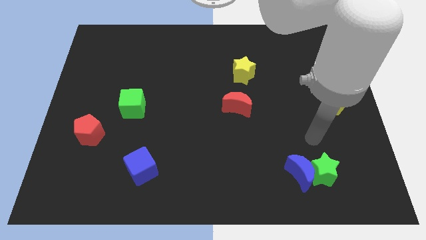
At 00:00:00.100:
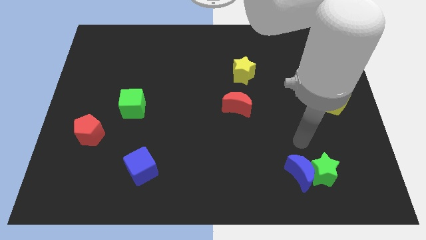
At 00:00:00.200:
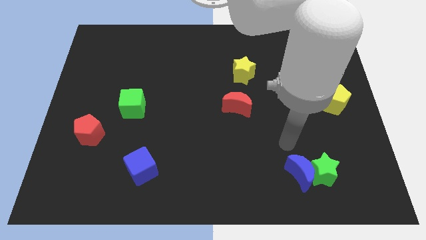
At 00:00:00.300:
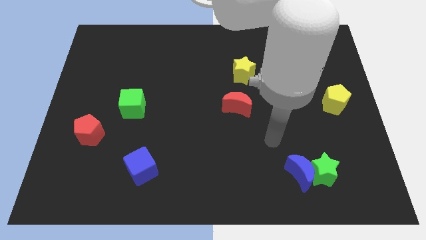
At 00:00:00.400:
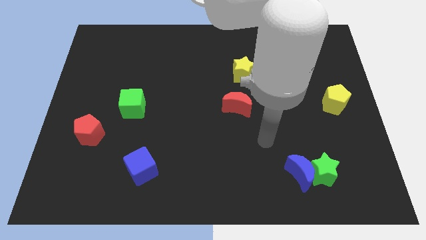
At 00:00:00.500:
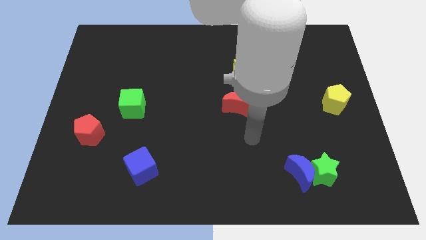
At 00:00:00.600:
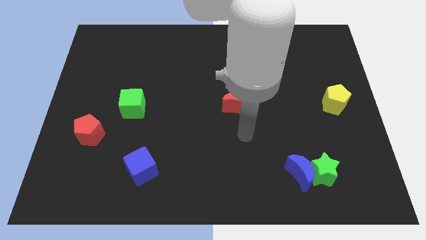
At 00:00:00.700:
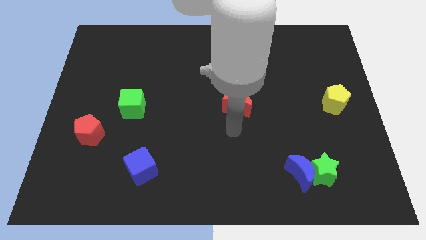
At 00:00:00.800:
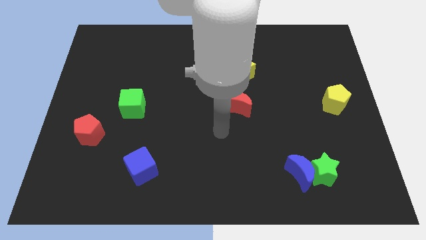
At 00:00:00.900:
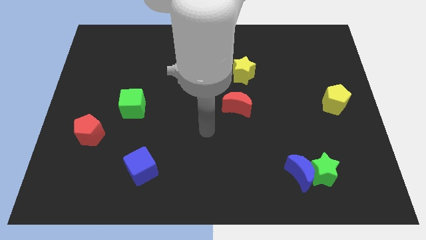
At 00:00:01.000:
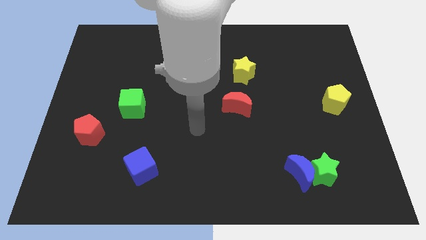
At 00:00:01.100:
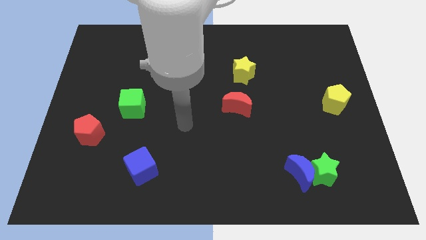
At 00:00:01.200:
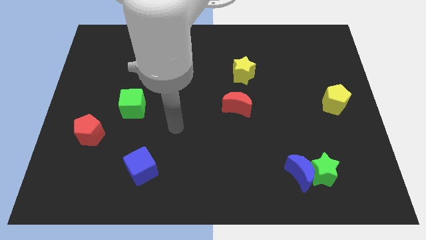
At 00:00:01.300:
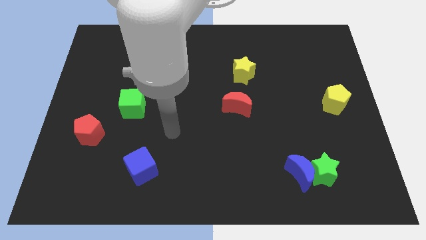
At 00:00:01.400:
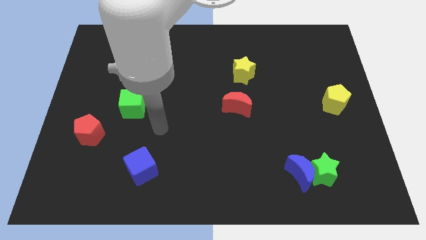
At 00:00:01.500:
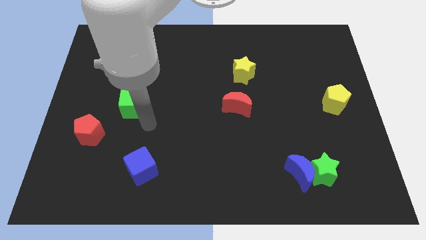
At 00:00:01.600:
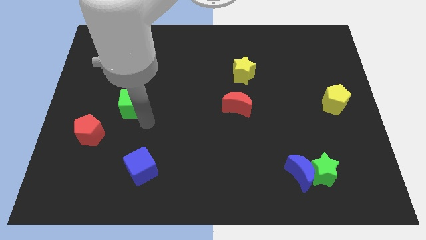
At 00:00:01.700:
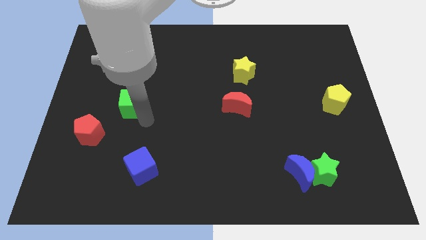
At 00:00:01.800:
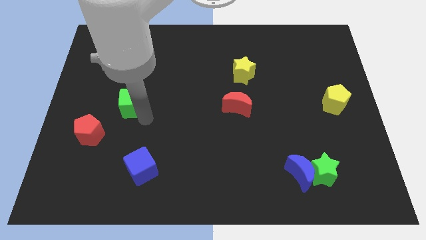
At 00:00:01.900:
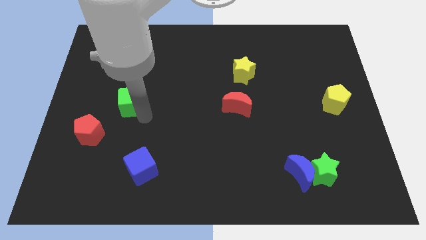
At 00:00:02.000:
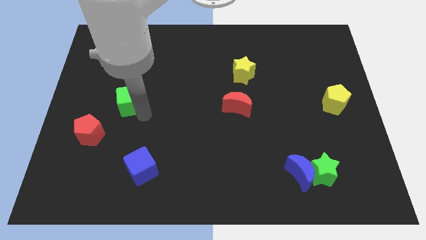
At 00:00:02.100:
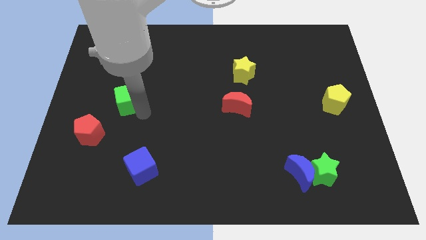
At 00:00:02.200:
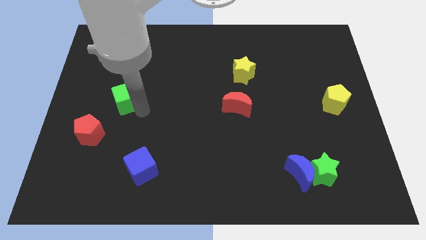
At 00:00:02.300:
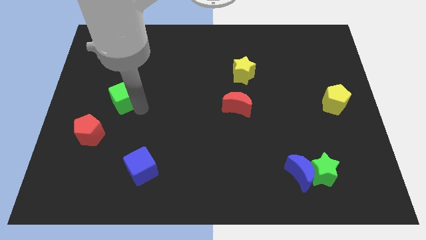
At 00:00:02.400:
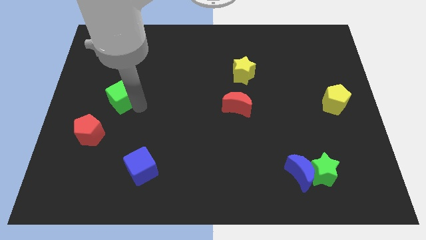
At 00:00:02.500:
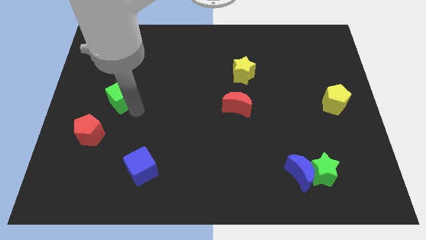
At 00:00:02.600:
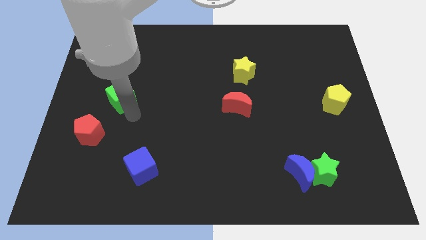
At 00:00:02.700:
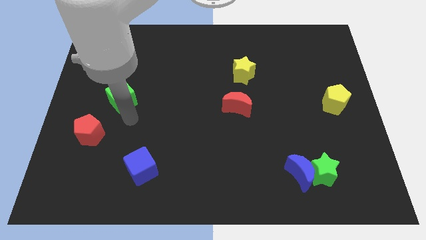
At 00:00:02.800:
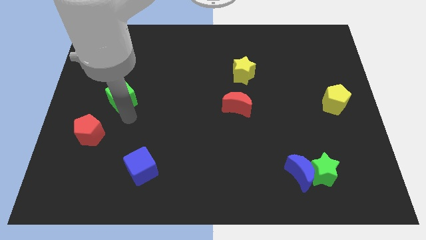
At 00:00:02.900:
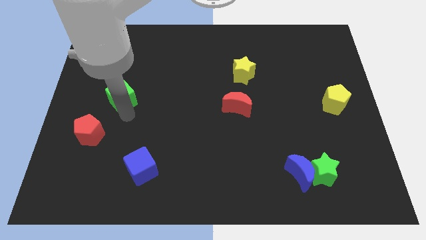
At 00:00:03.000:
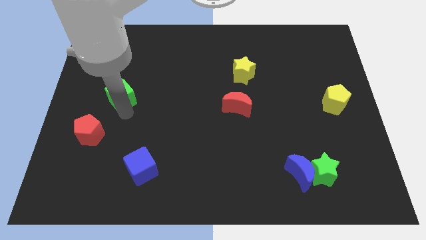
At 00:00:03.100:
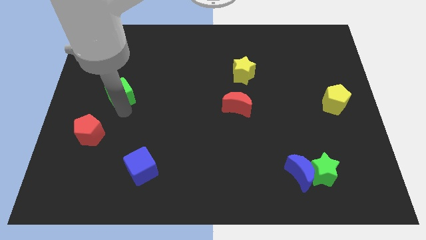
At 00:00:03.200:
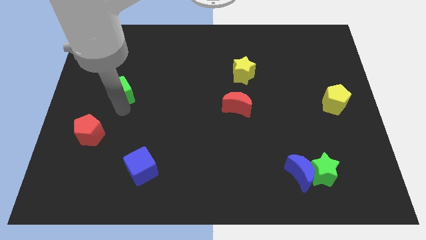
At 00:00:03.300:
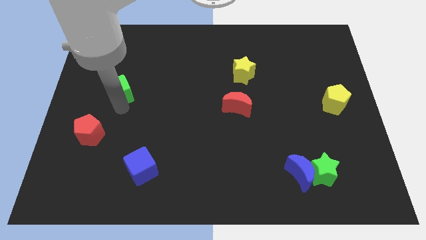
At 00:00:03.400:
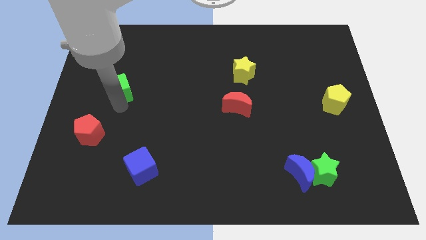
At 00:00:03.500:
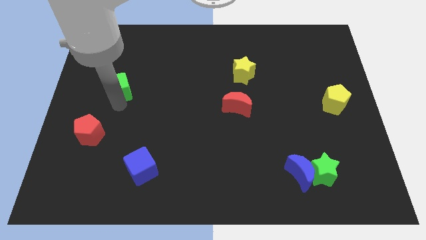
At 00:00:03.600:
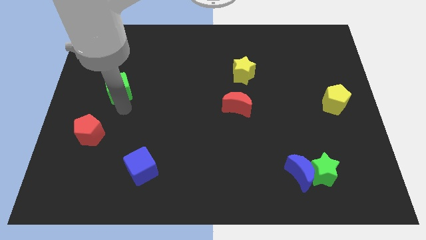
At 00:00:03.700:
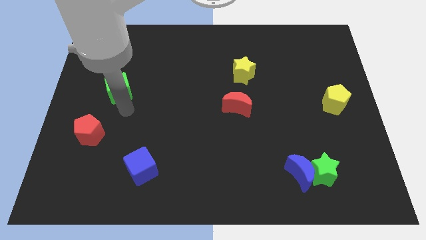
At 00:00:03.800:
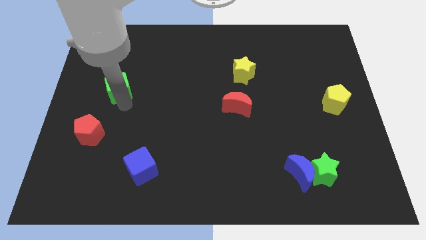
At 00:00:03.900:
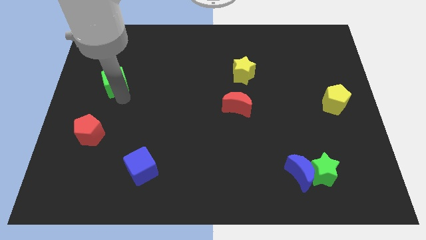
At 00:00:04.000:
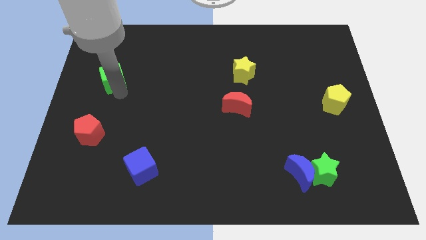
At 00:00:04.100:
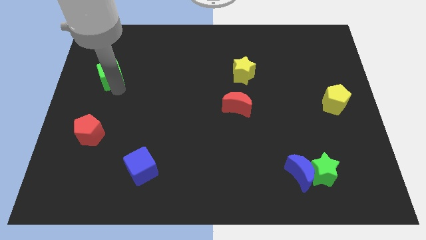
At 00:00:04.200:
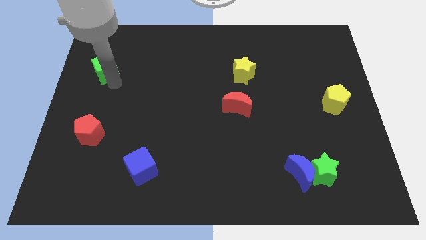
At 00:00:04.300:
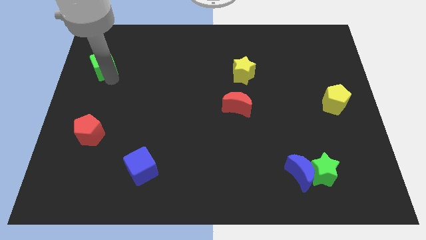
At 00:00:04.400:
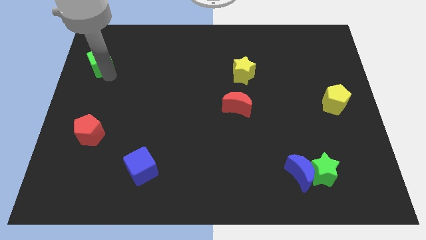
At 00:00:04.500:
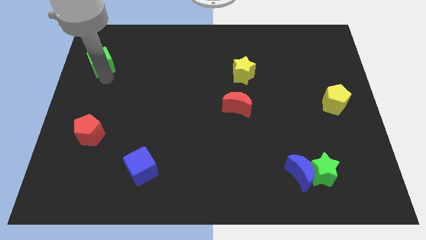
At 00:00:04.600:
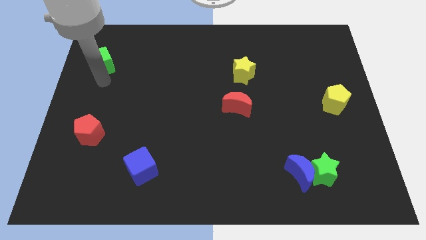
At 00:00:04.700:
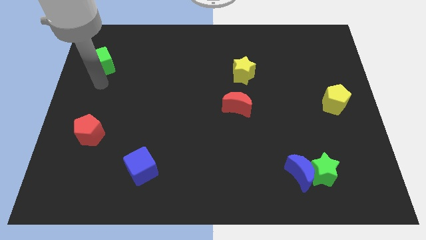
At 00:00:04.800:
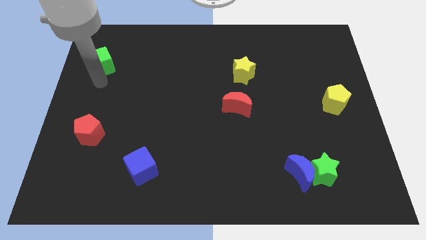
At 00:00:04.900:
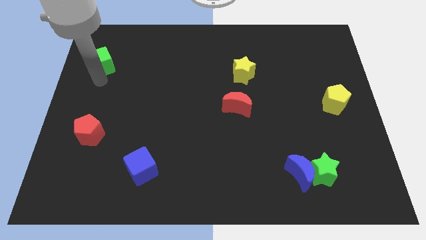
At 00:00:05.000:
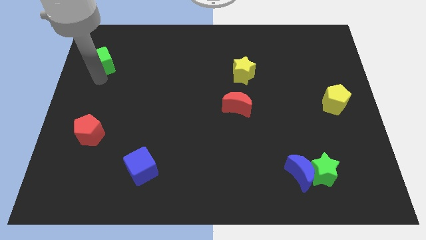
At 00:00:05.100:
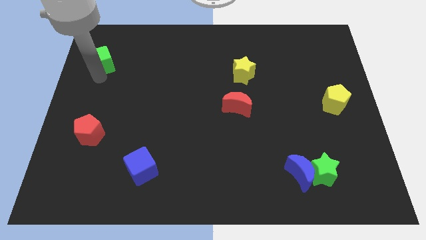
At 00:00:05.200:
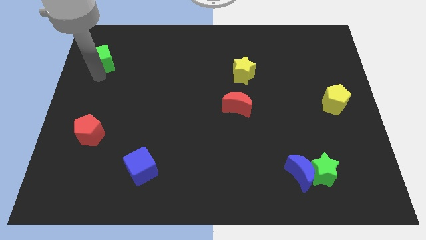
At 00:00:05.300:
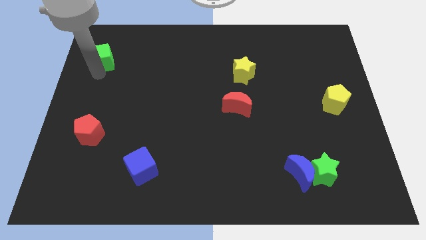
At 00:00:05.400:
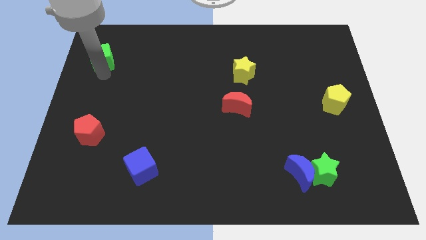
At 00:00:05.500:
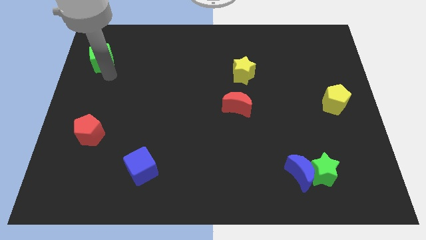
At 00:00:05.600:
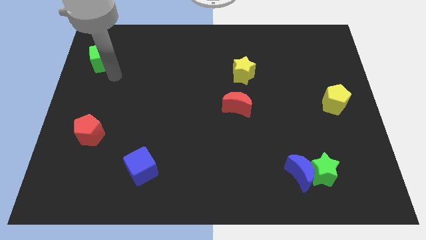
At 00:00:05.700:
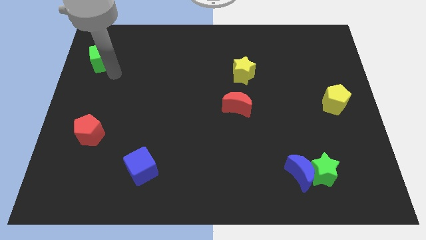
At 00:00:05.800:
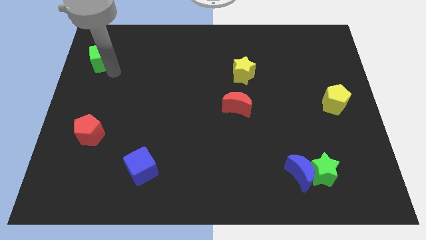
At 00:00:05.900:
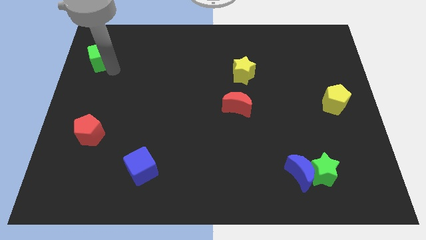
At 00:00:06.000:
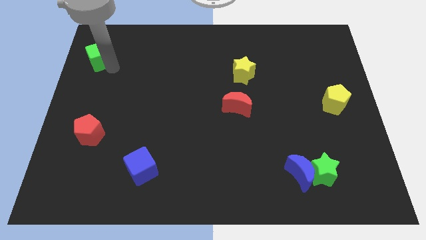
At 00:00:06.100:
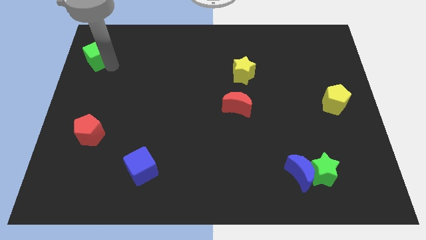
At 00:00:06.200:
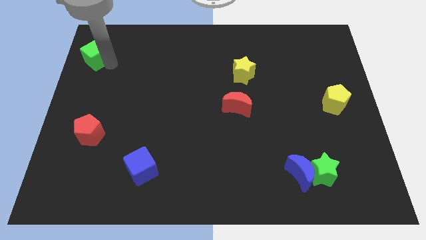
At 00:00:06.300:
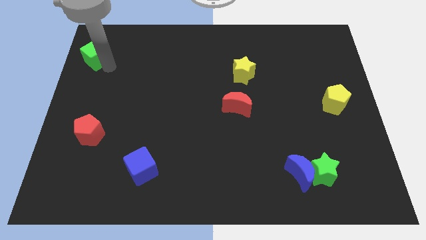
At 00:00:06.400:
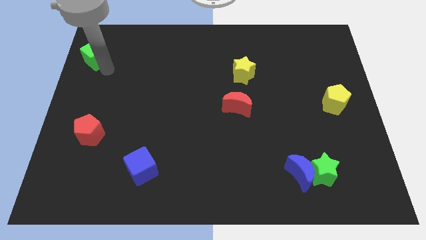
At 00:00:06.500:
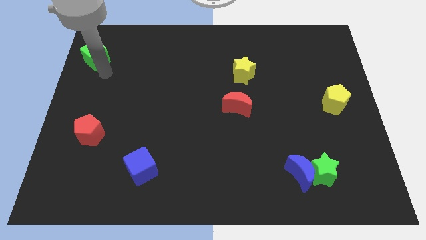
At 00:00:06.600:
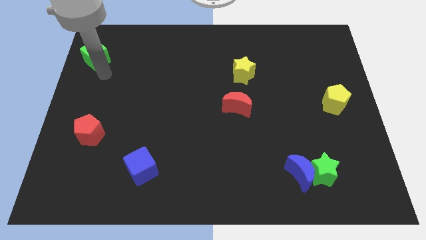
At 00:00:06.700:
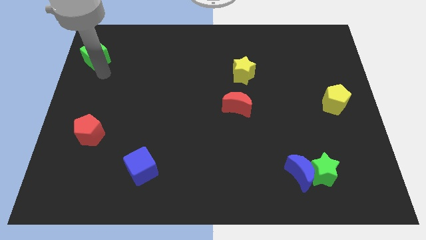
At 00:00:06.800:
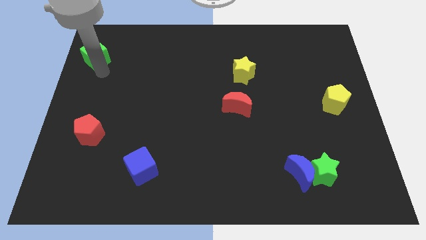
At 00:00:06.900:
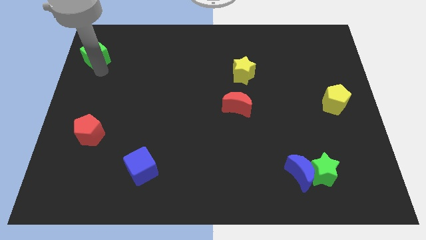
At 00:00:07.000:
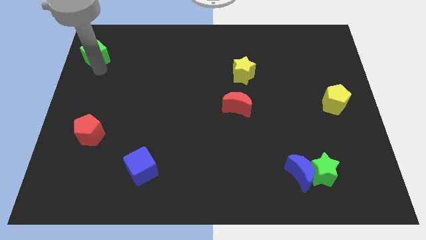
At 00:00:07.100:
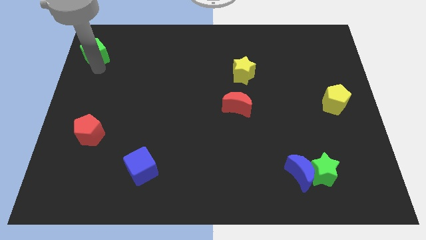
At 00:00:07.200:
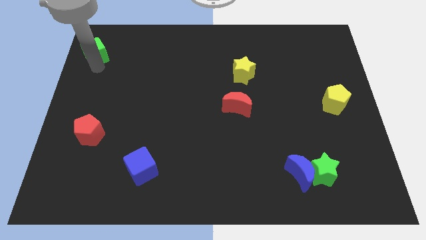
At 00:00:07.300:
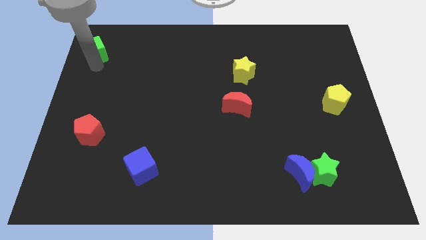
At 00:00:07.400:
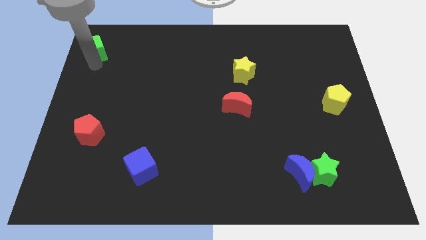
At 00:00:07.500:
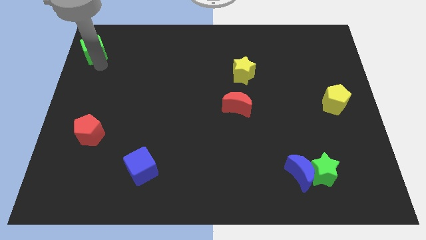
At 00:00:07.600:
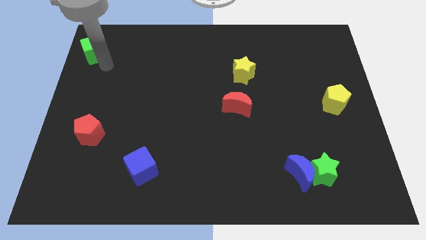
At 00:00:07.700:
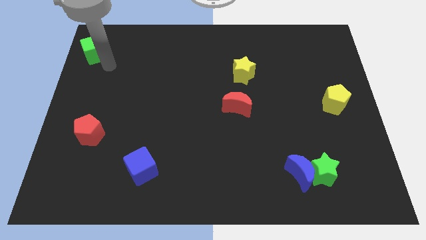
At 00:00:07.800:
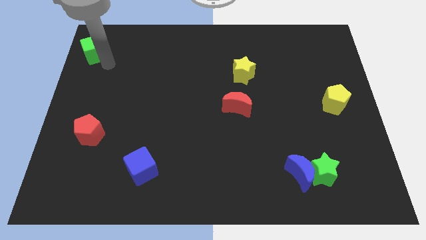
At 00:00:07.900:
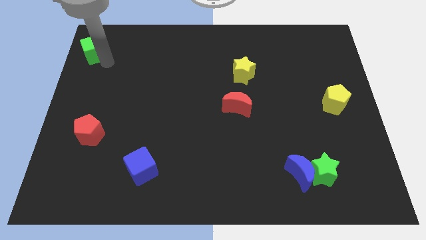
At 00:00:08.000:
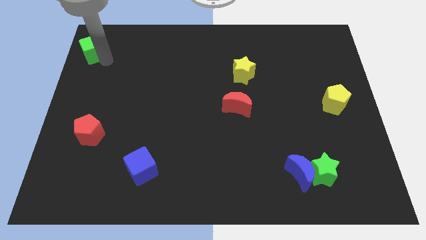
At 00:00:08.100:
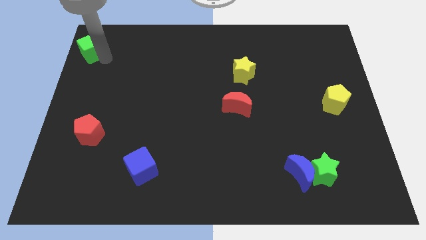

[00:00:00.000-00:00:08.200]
push the green cube to the upper left corner
